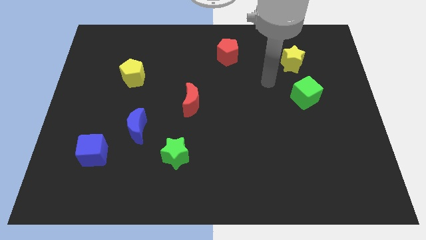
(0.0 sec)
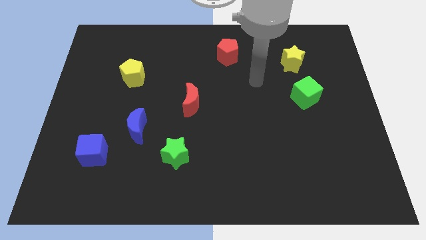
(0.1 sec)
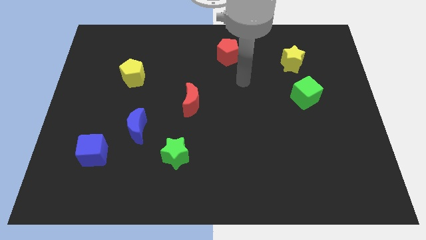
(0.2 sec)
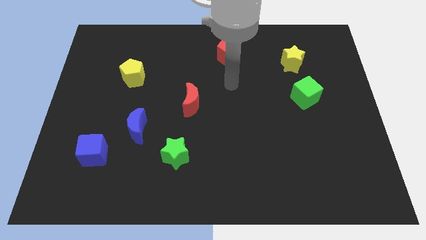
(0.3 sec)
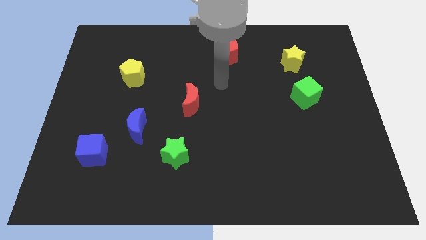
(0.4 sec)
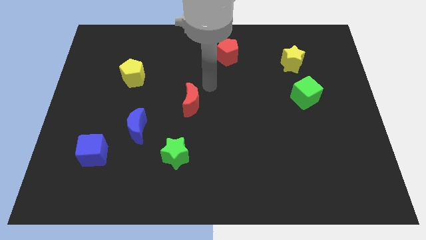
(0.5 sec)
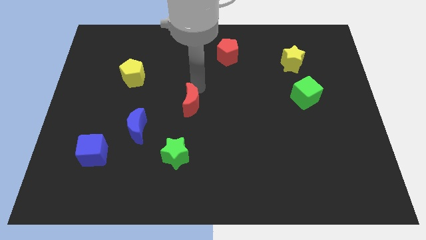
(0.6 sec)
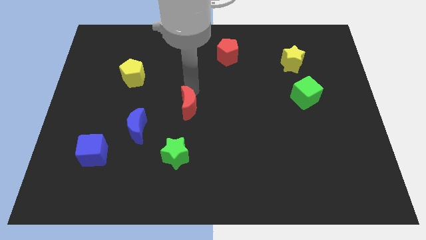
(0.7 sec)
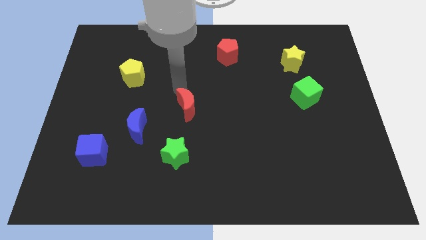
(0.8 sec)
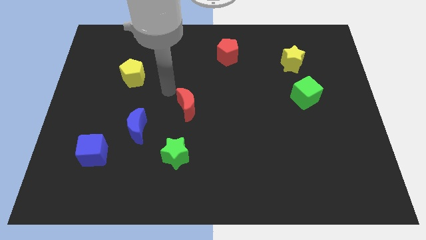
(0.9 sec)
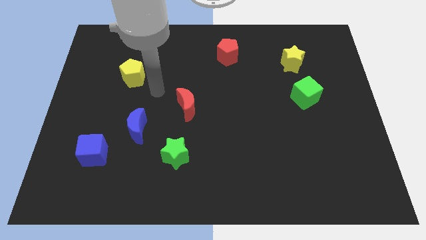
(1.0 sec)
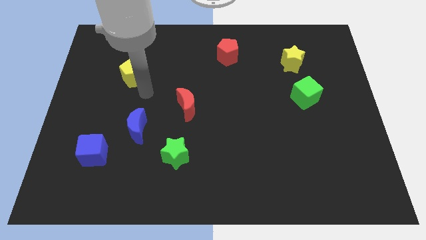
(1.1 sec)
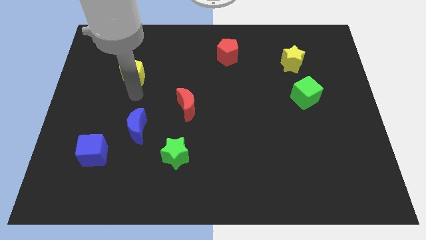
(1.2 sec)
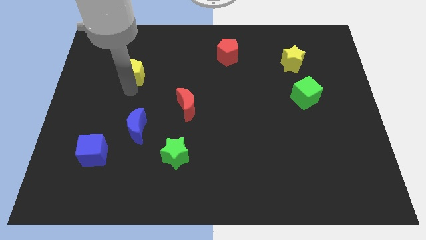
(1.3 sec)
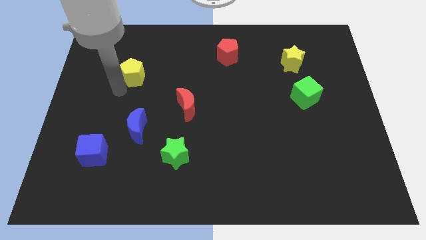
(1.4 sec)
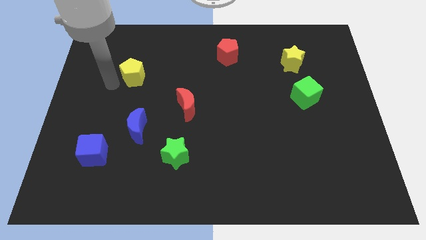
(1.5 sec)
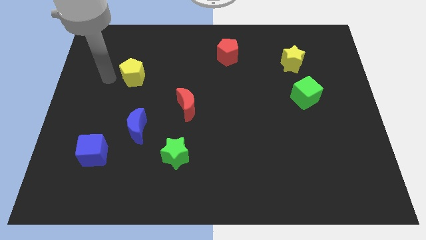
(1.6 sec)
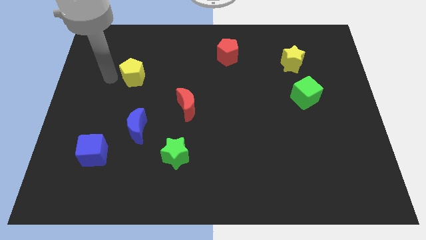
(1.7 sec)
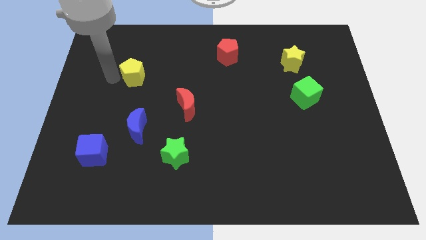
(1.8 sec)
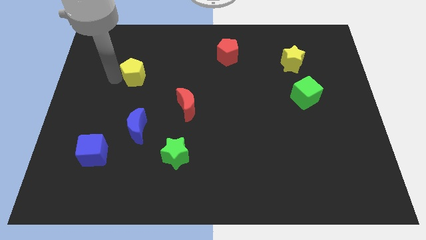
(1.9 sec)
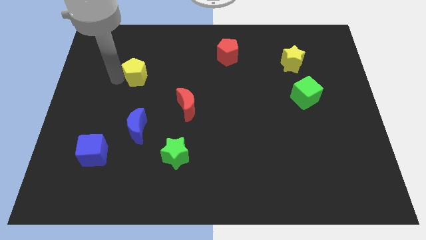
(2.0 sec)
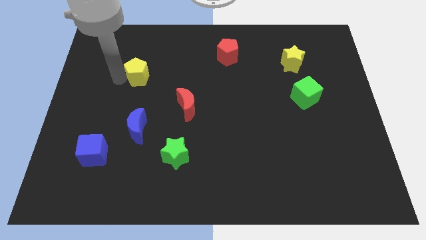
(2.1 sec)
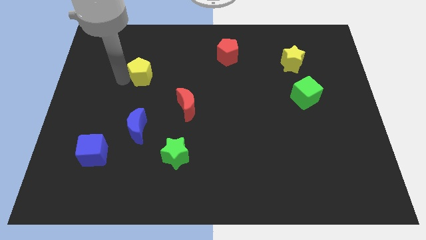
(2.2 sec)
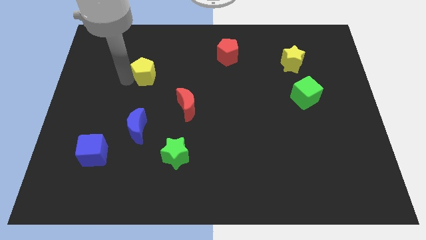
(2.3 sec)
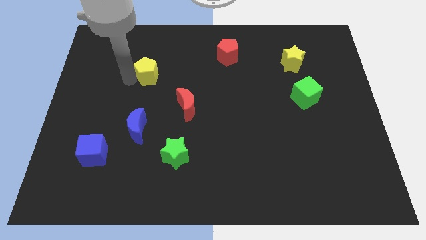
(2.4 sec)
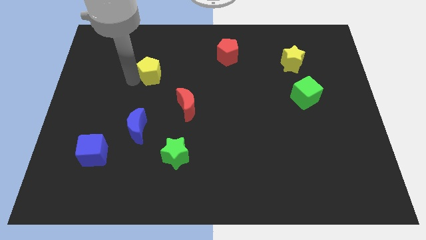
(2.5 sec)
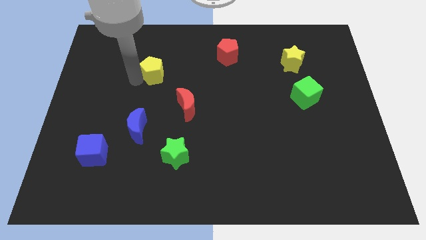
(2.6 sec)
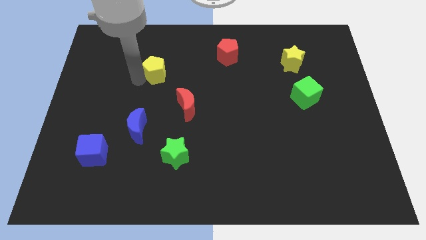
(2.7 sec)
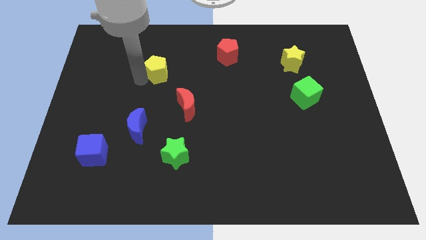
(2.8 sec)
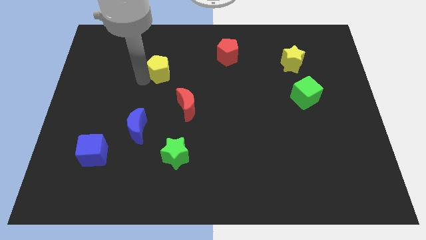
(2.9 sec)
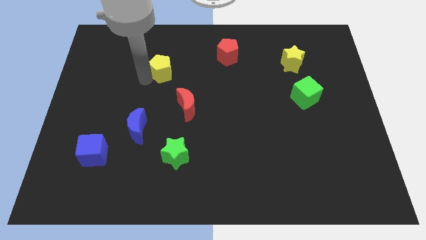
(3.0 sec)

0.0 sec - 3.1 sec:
slide the yellow pentagon right a bit

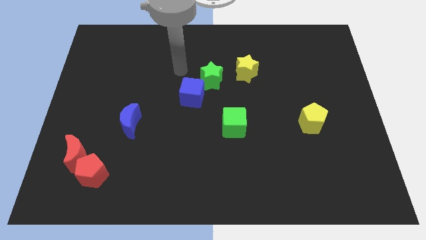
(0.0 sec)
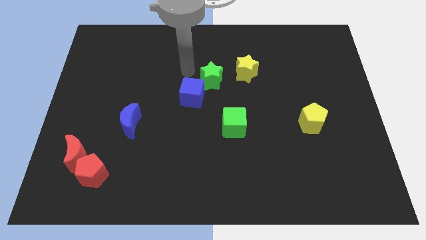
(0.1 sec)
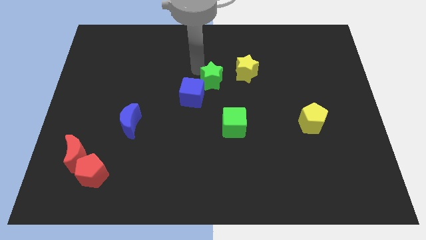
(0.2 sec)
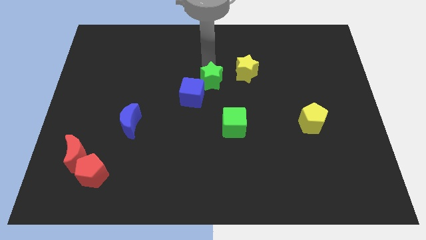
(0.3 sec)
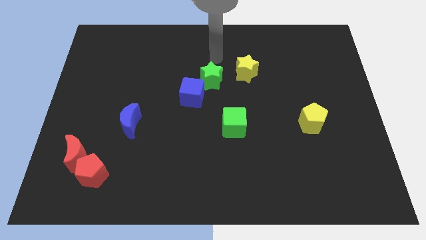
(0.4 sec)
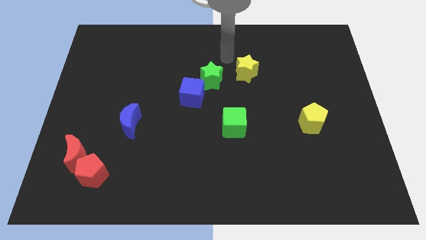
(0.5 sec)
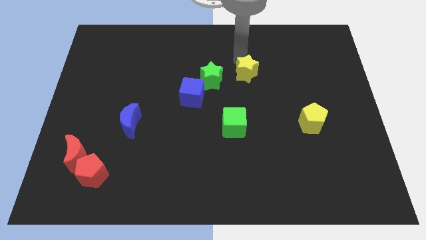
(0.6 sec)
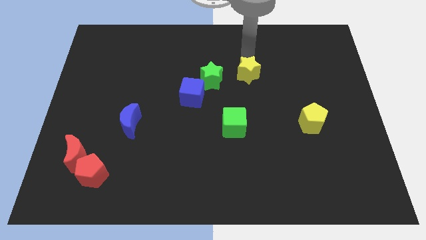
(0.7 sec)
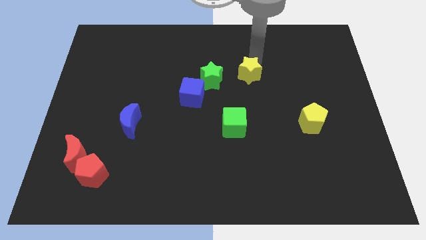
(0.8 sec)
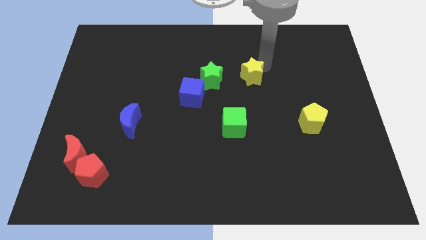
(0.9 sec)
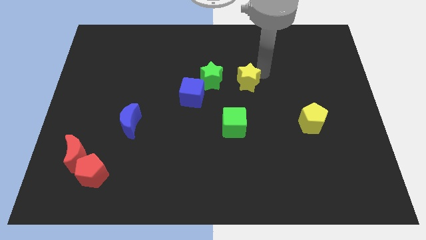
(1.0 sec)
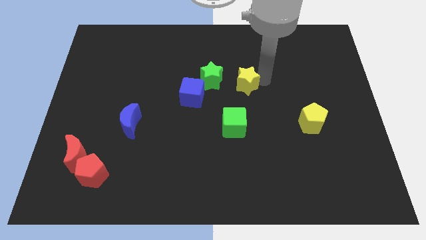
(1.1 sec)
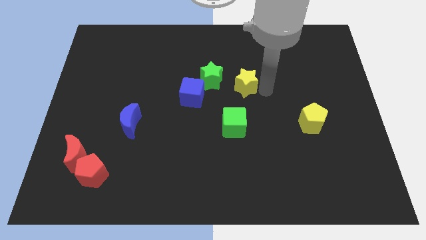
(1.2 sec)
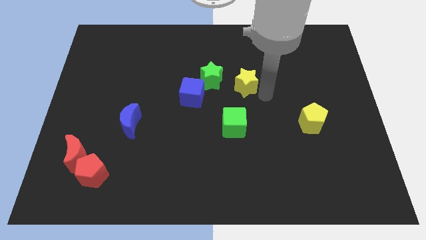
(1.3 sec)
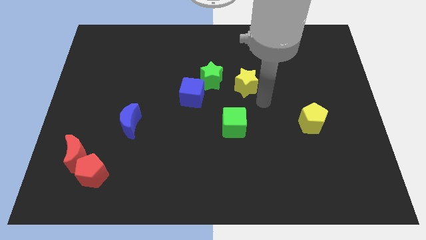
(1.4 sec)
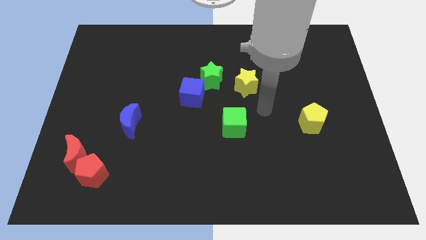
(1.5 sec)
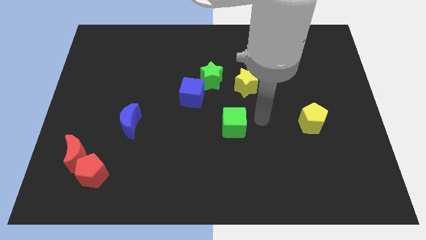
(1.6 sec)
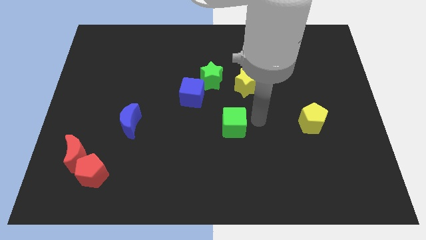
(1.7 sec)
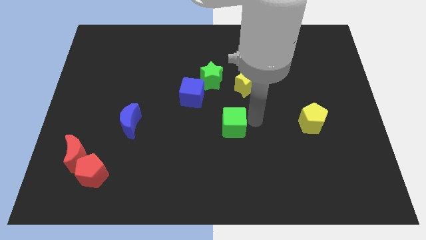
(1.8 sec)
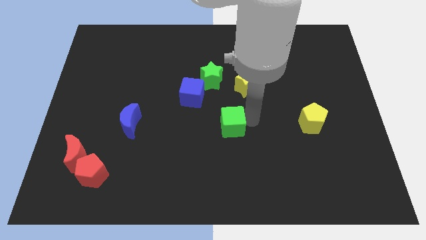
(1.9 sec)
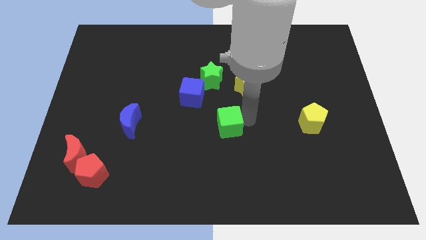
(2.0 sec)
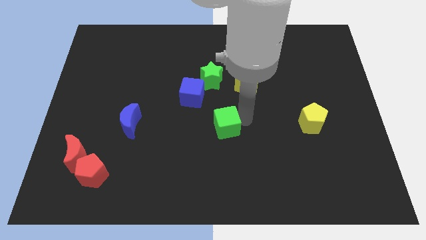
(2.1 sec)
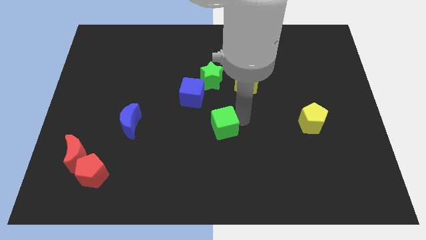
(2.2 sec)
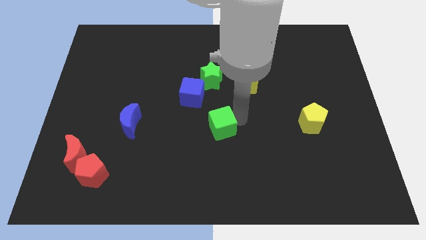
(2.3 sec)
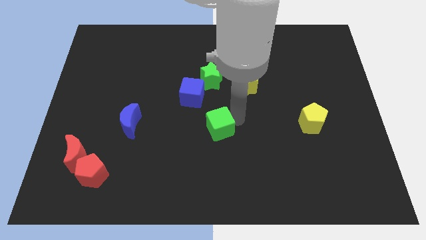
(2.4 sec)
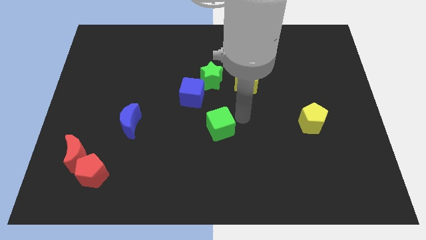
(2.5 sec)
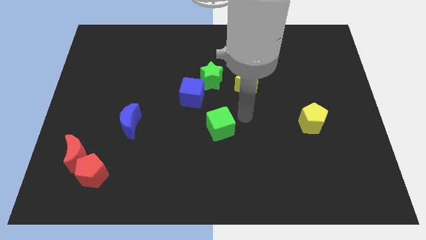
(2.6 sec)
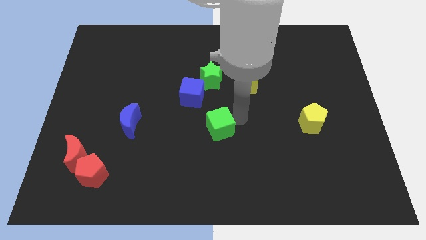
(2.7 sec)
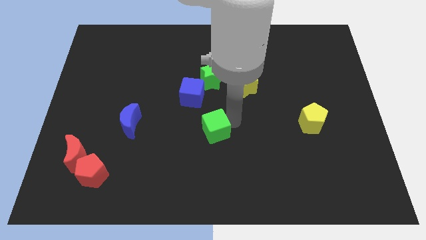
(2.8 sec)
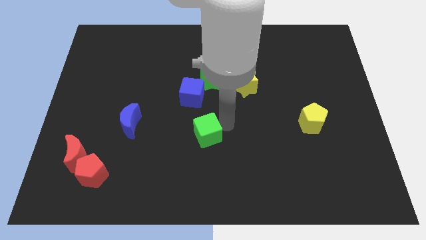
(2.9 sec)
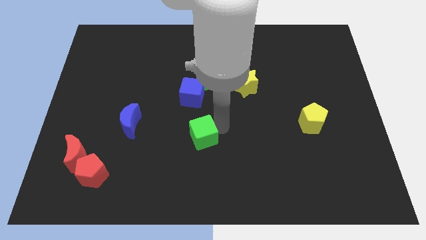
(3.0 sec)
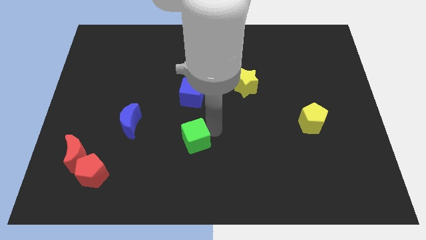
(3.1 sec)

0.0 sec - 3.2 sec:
slightly move the green cube downwards and then to the left

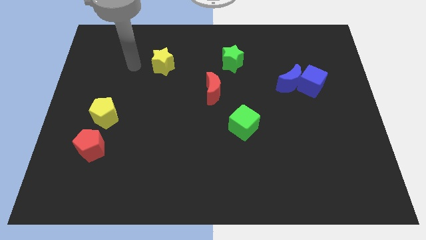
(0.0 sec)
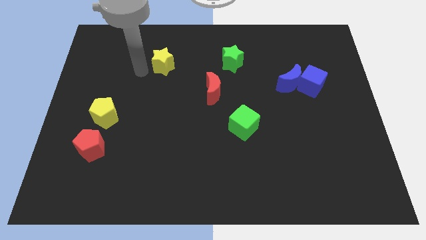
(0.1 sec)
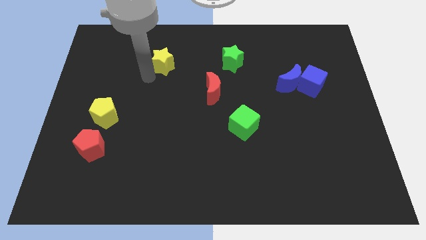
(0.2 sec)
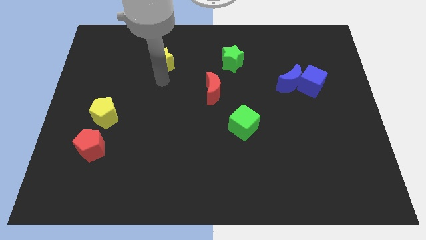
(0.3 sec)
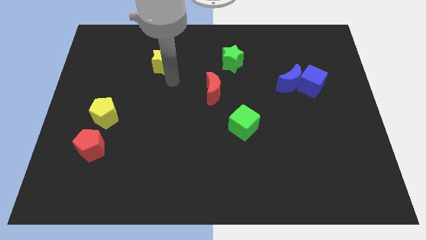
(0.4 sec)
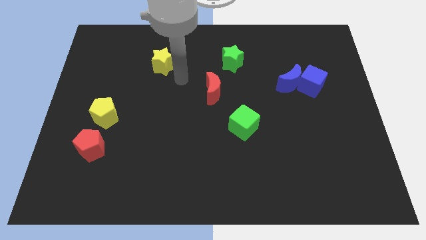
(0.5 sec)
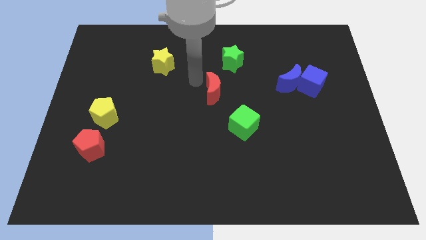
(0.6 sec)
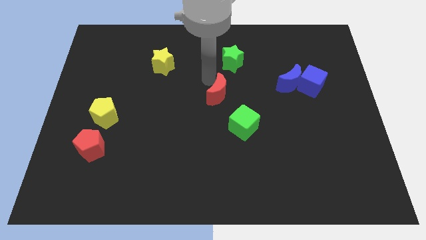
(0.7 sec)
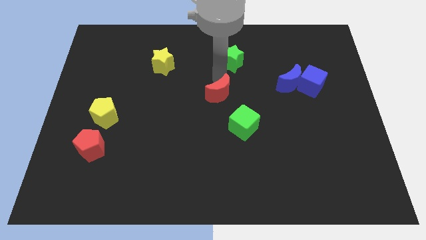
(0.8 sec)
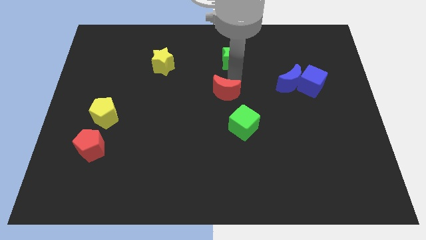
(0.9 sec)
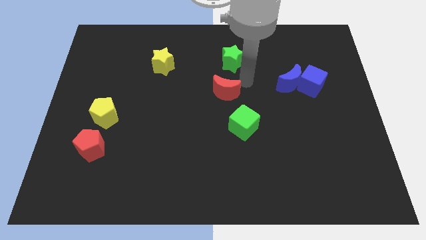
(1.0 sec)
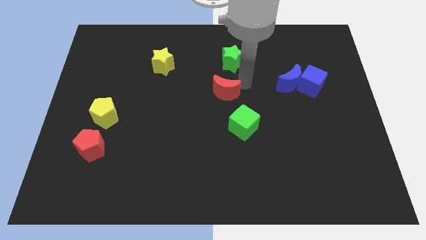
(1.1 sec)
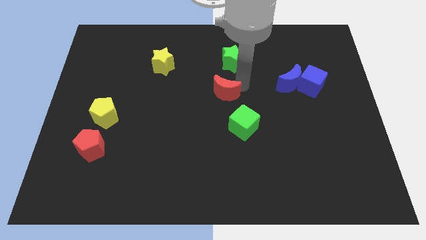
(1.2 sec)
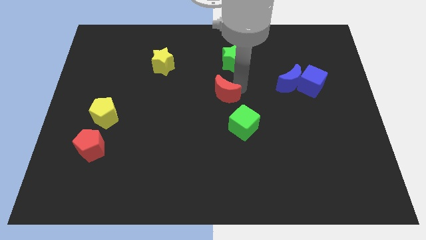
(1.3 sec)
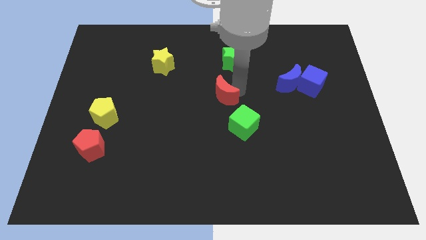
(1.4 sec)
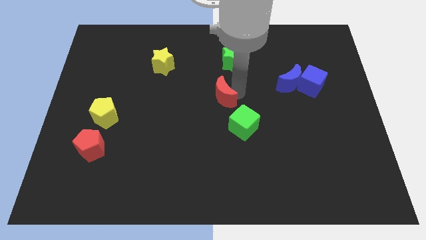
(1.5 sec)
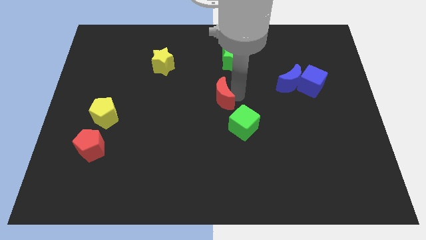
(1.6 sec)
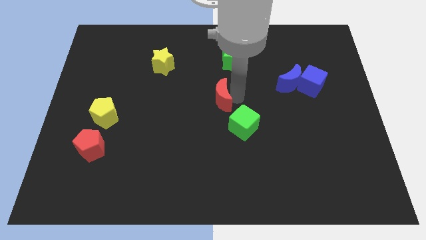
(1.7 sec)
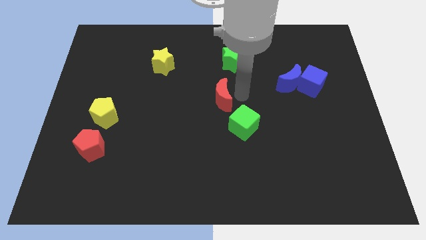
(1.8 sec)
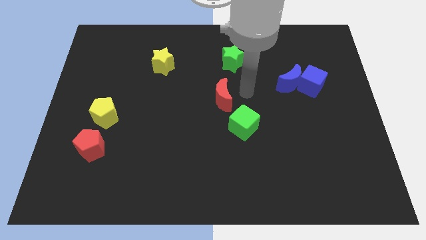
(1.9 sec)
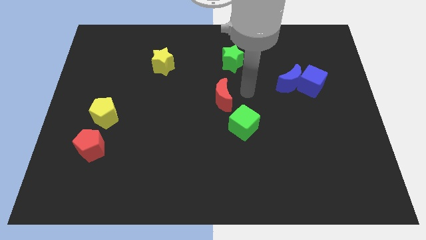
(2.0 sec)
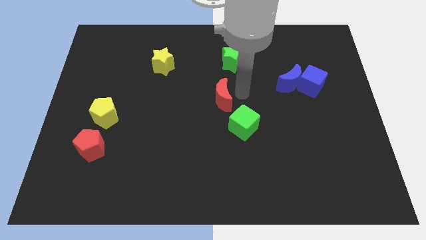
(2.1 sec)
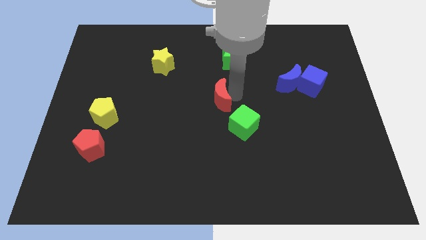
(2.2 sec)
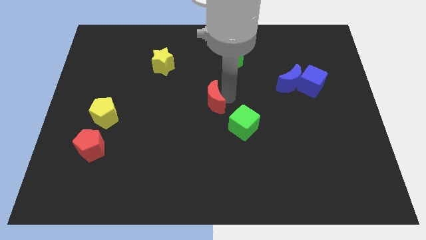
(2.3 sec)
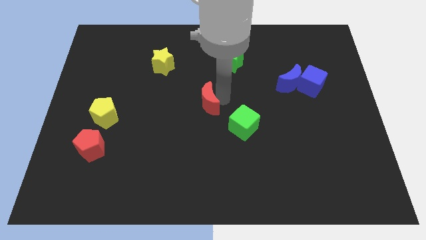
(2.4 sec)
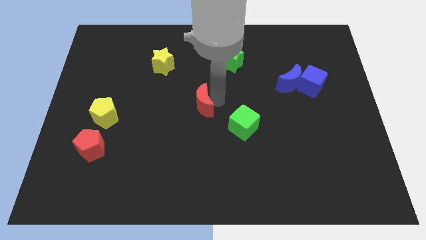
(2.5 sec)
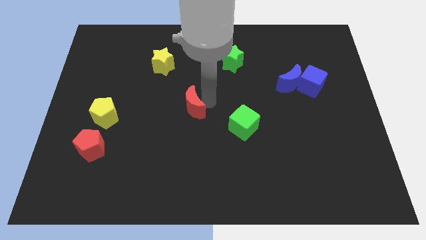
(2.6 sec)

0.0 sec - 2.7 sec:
slide the red moon diagonally down and left a bit
